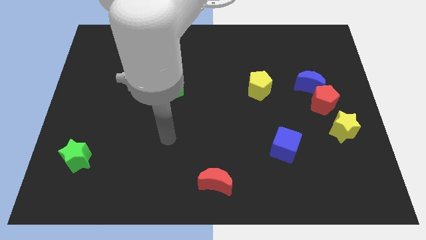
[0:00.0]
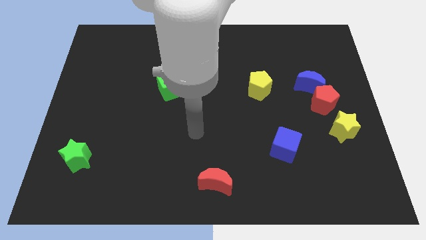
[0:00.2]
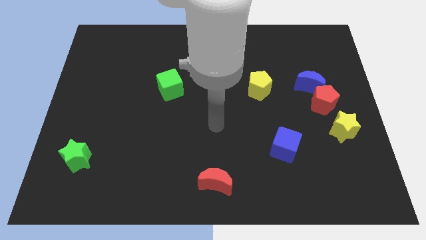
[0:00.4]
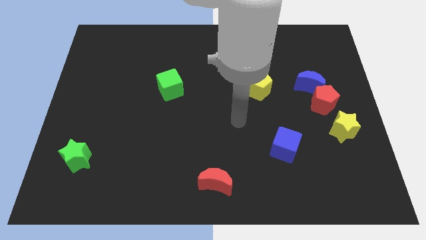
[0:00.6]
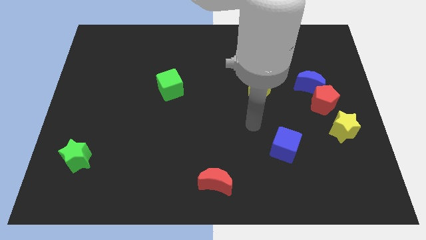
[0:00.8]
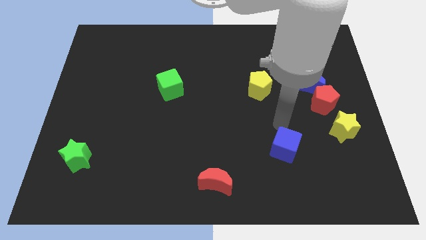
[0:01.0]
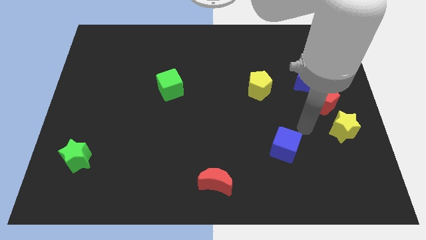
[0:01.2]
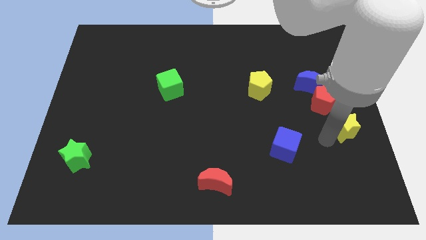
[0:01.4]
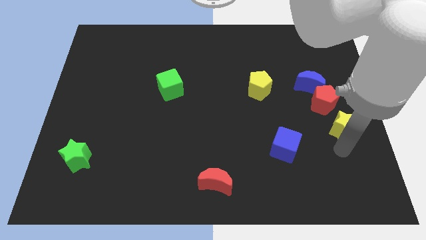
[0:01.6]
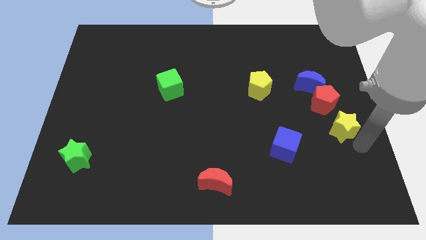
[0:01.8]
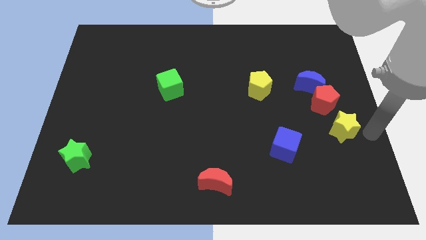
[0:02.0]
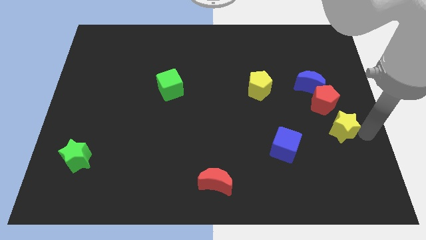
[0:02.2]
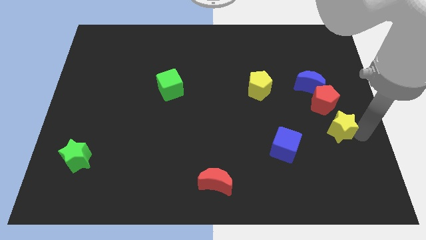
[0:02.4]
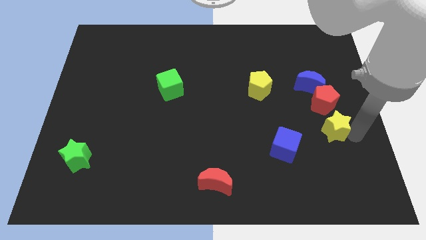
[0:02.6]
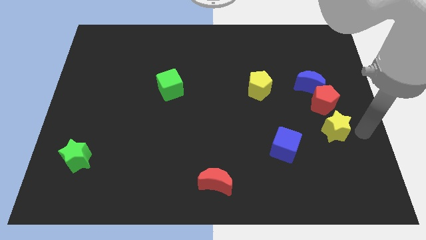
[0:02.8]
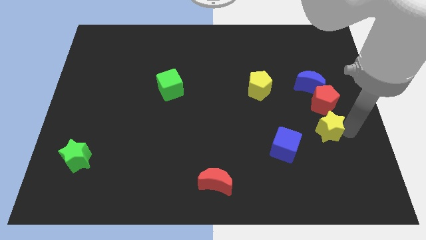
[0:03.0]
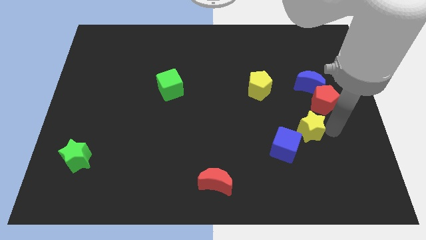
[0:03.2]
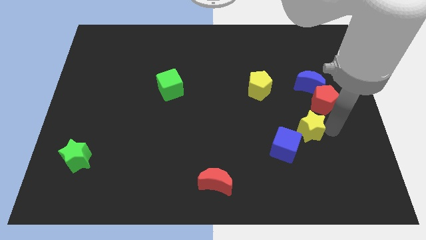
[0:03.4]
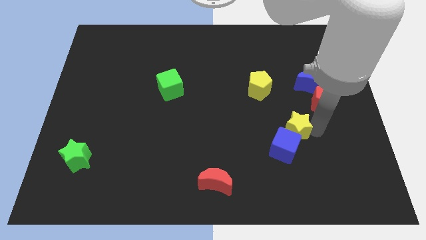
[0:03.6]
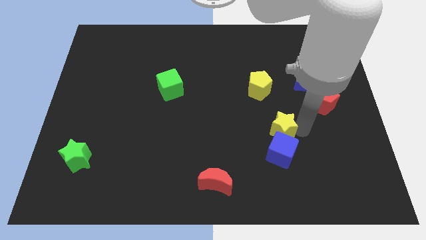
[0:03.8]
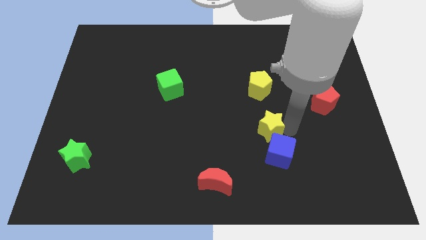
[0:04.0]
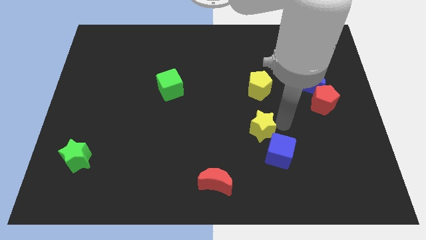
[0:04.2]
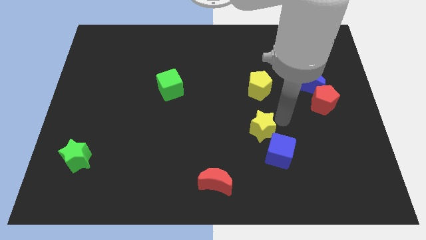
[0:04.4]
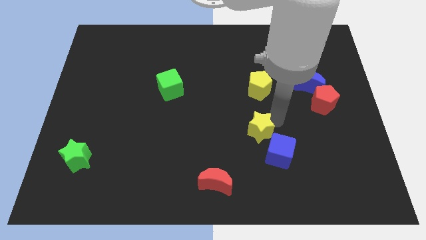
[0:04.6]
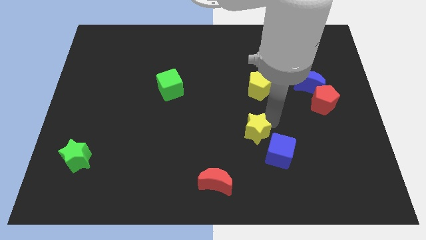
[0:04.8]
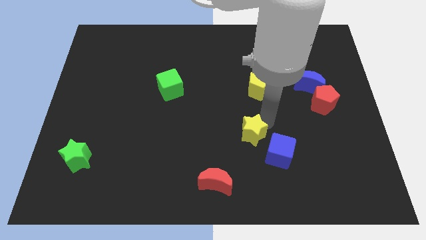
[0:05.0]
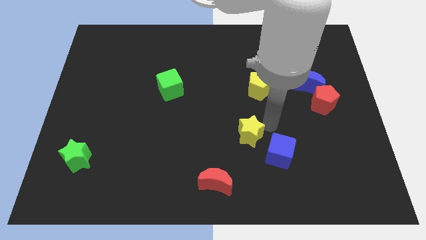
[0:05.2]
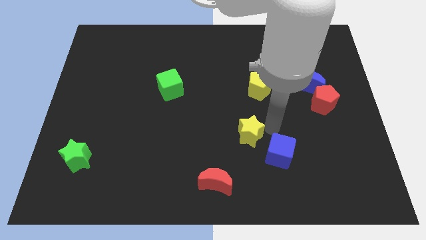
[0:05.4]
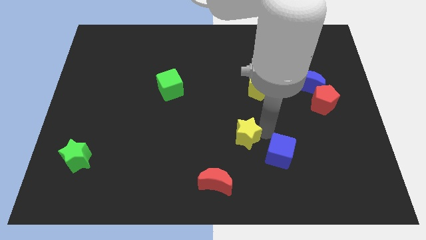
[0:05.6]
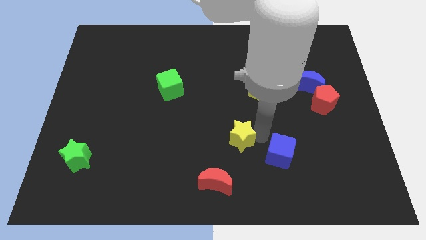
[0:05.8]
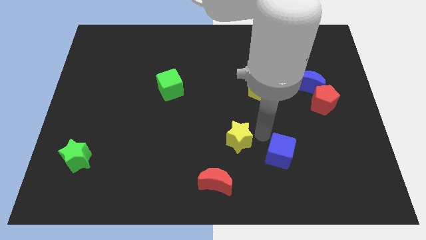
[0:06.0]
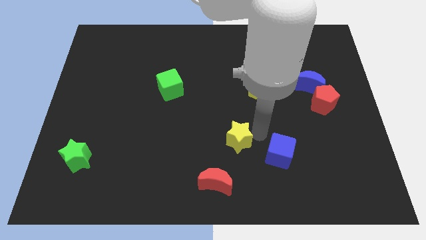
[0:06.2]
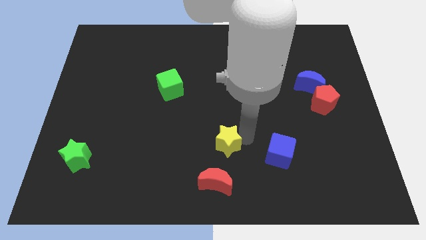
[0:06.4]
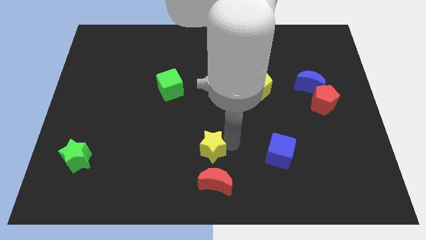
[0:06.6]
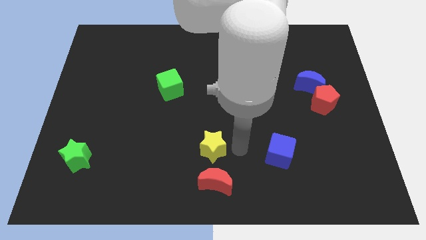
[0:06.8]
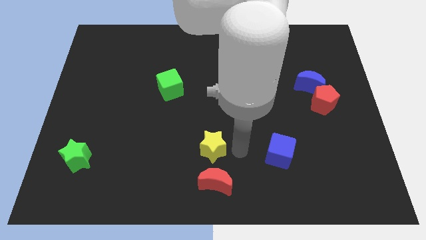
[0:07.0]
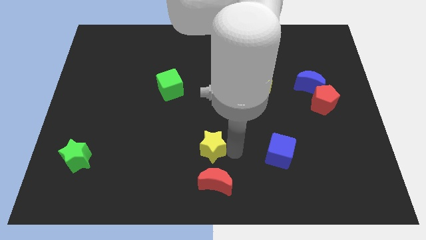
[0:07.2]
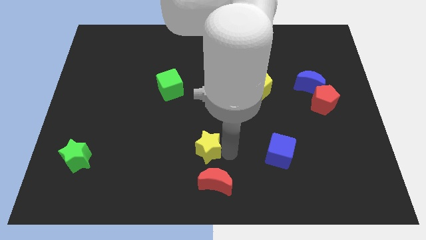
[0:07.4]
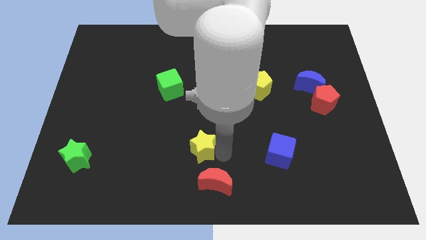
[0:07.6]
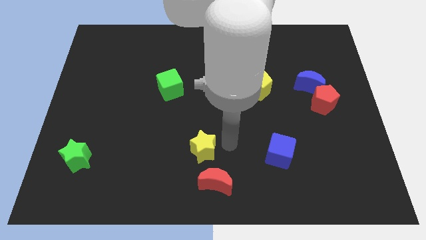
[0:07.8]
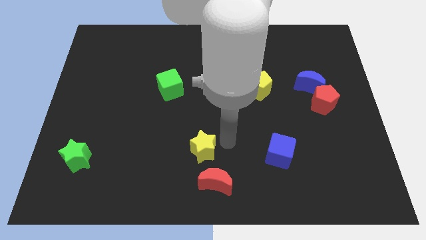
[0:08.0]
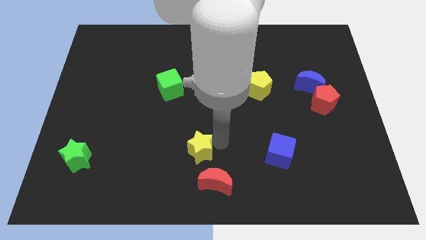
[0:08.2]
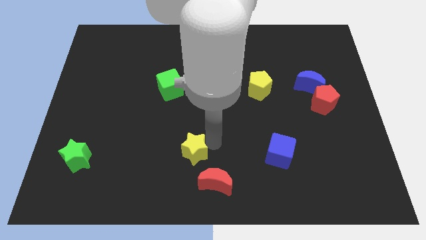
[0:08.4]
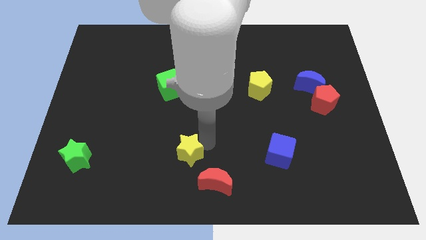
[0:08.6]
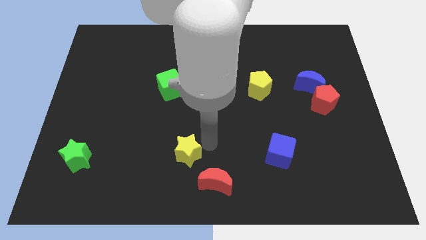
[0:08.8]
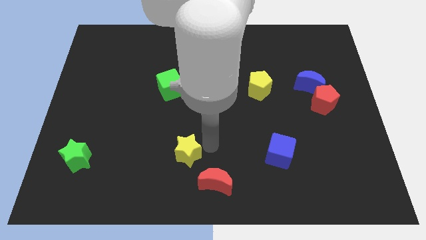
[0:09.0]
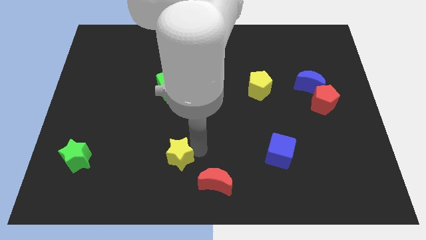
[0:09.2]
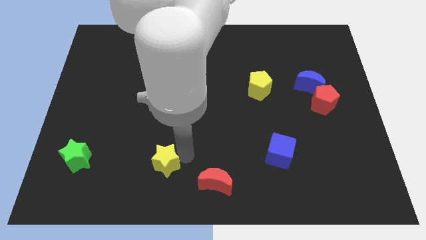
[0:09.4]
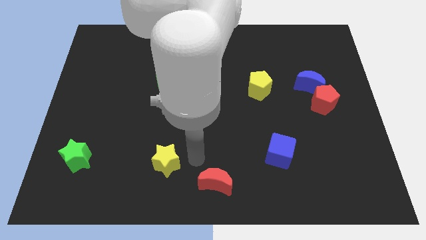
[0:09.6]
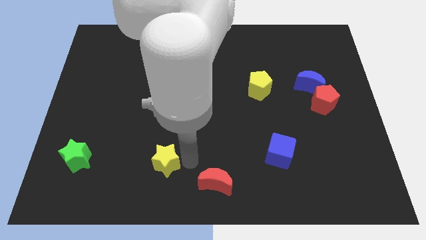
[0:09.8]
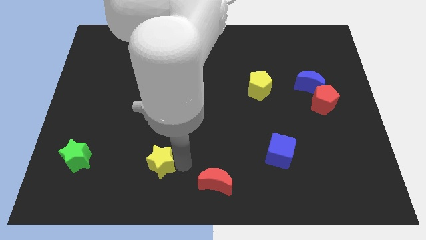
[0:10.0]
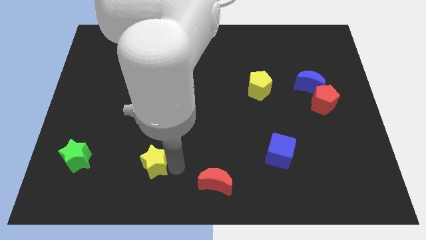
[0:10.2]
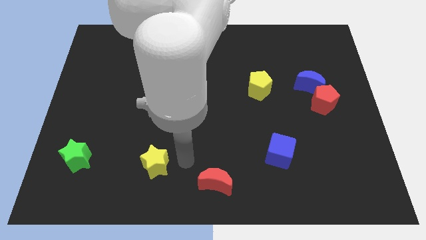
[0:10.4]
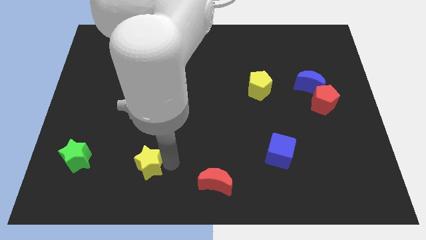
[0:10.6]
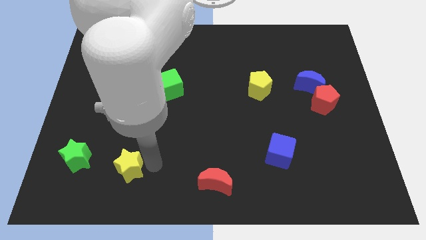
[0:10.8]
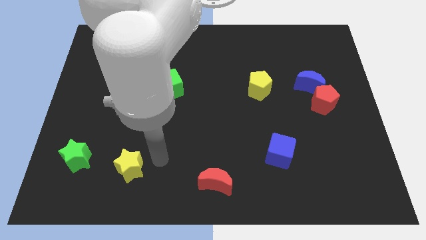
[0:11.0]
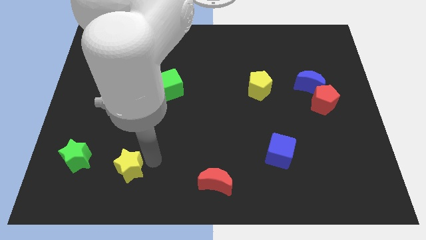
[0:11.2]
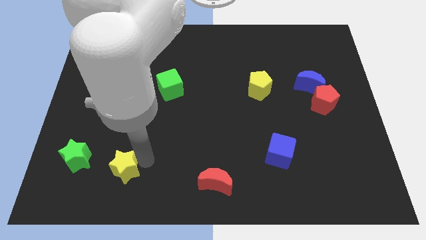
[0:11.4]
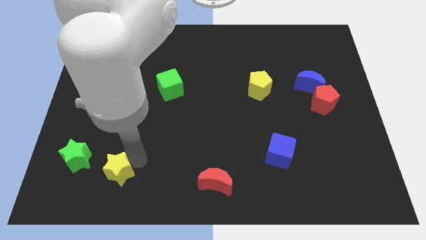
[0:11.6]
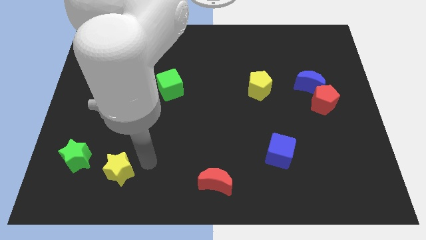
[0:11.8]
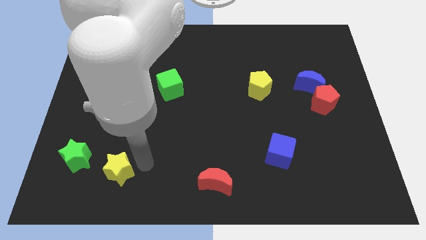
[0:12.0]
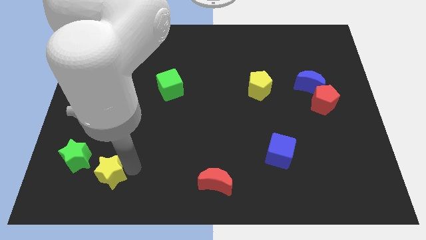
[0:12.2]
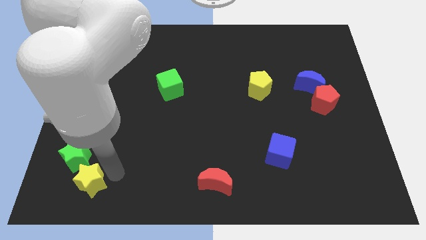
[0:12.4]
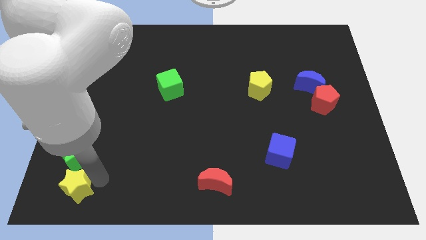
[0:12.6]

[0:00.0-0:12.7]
push the yellow star to the bottom left

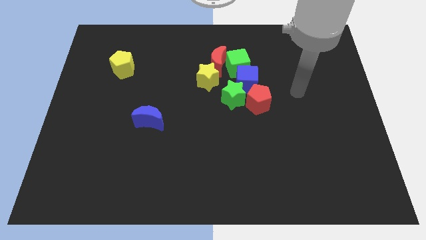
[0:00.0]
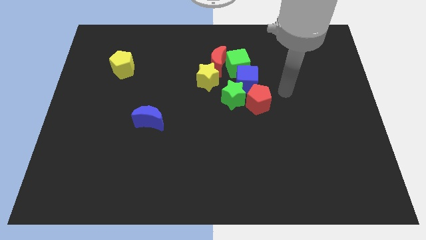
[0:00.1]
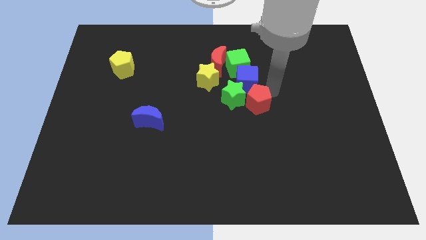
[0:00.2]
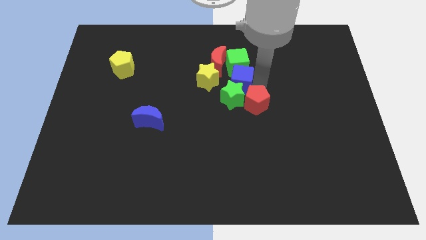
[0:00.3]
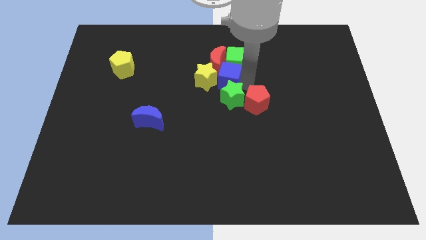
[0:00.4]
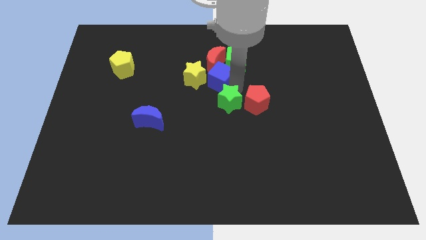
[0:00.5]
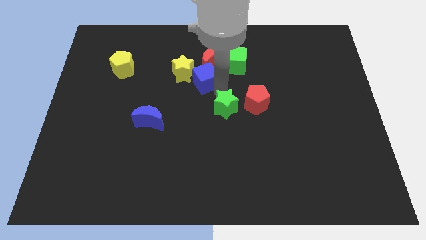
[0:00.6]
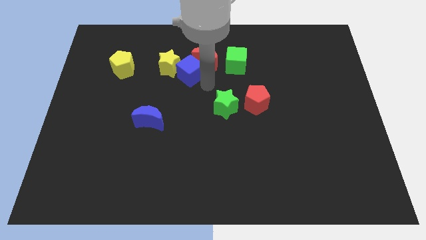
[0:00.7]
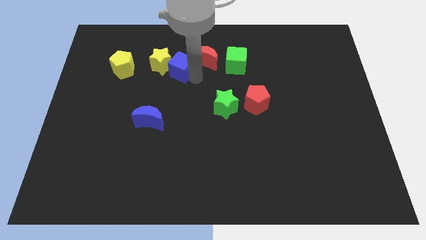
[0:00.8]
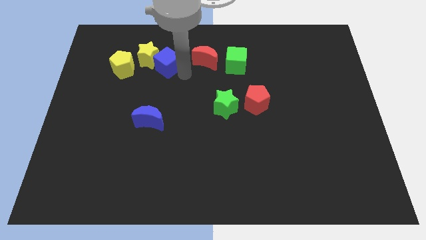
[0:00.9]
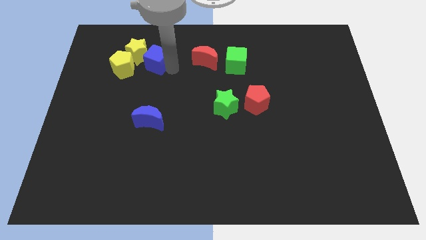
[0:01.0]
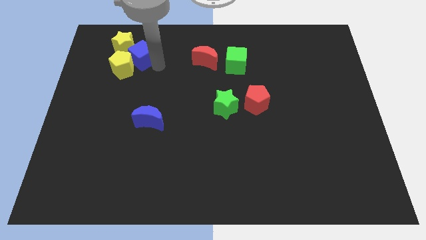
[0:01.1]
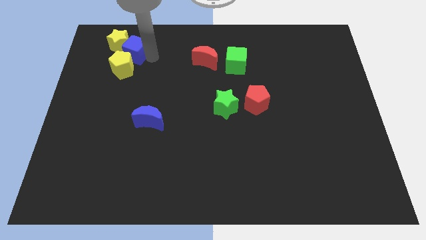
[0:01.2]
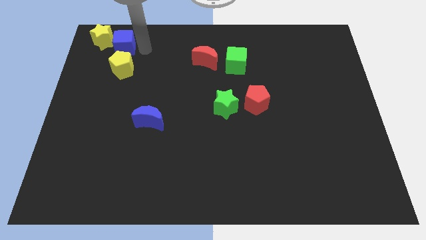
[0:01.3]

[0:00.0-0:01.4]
slide the yellow star to the top left of the board
